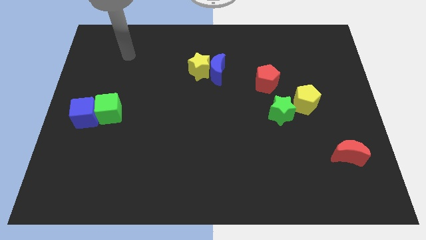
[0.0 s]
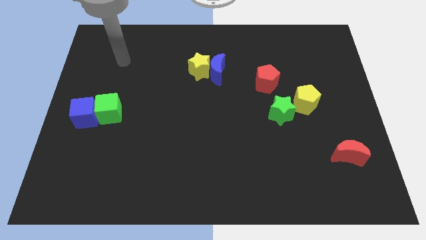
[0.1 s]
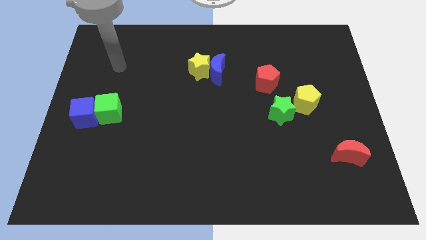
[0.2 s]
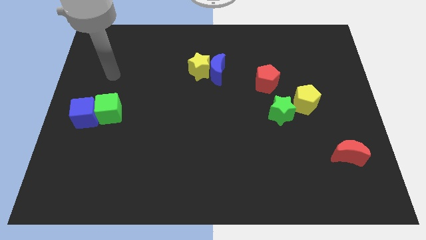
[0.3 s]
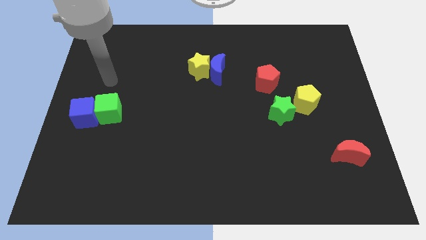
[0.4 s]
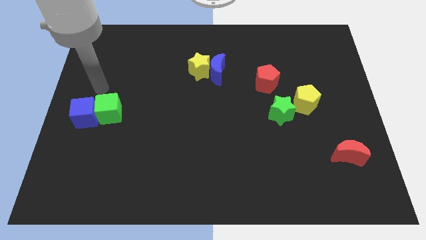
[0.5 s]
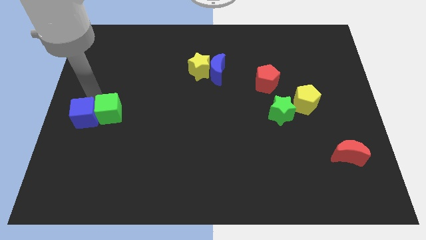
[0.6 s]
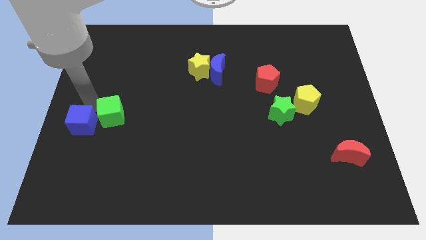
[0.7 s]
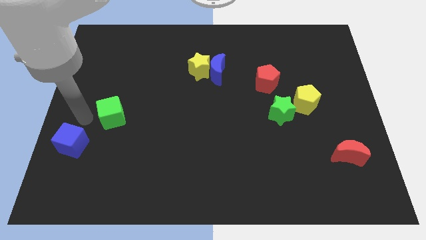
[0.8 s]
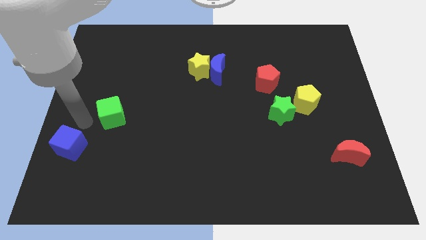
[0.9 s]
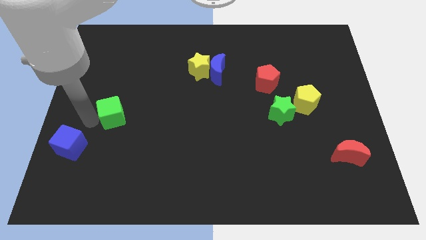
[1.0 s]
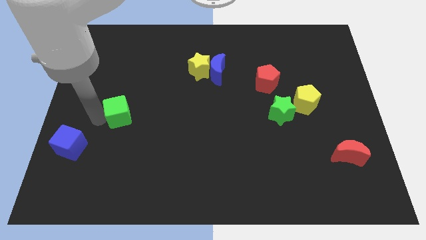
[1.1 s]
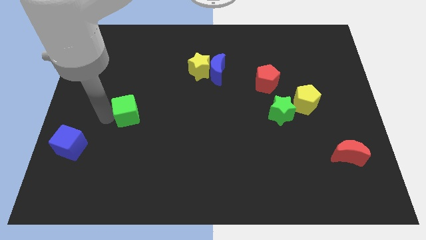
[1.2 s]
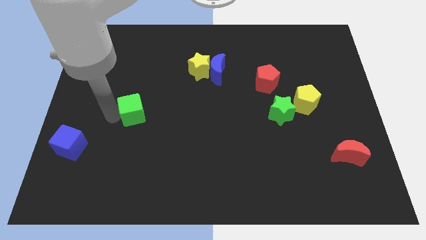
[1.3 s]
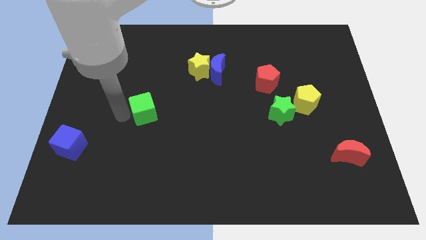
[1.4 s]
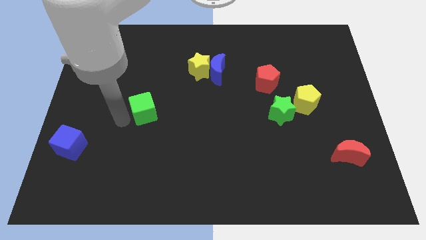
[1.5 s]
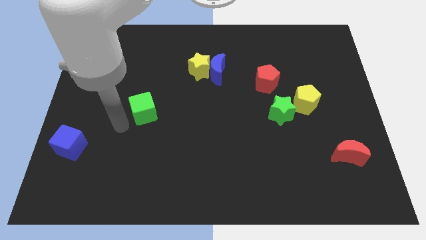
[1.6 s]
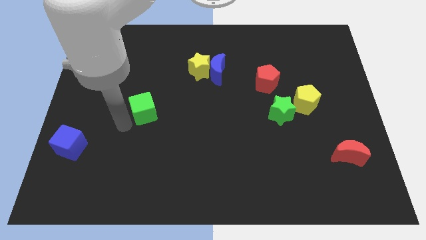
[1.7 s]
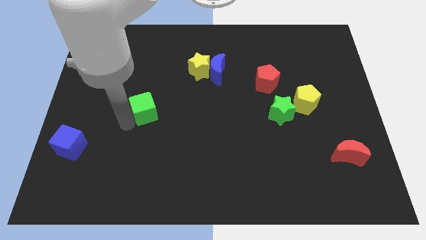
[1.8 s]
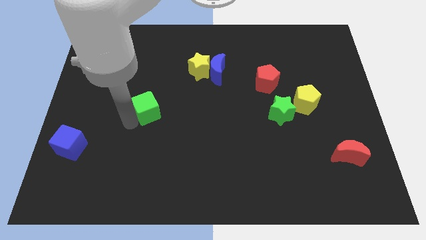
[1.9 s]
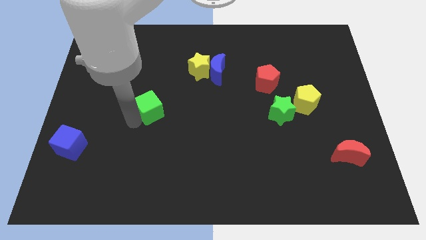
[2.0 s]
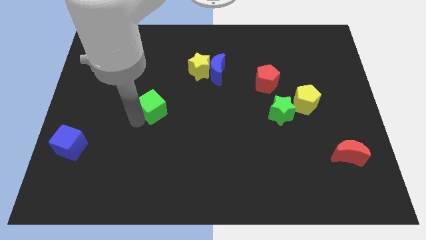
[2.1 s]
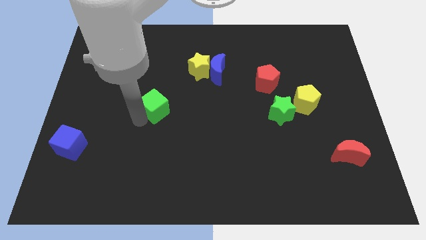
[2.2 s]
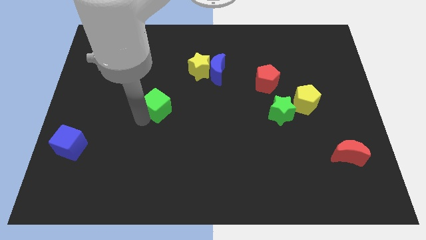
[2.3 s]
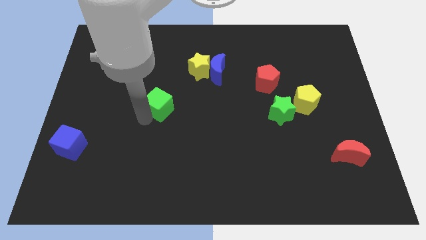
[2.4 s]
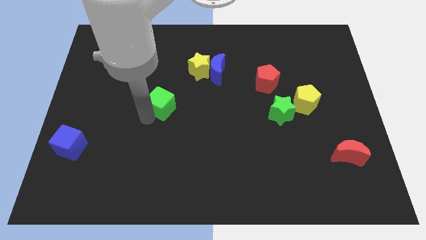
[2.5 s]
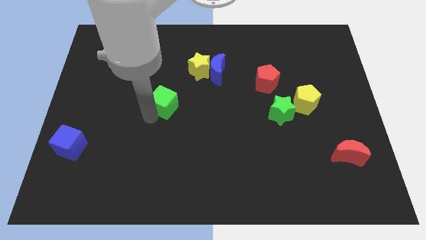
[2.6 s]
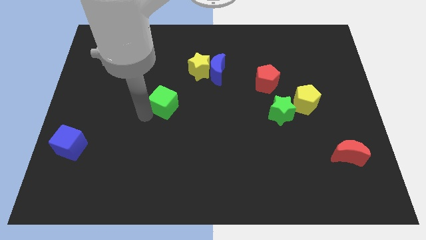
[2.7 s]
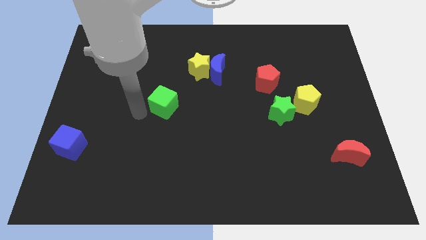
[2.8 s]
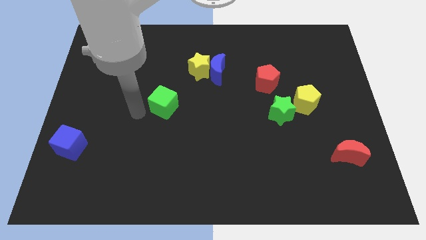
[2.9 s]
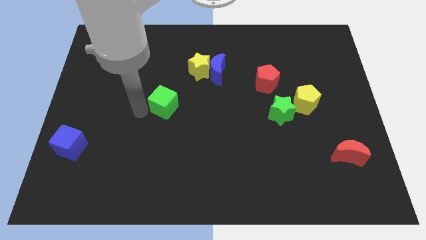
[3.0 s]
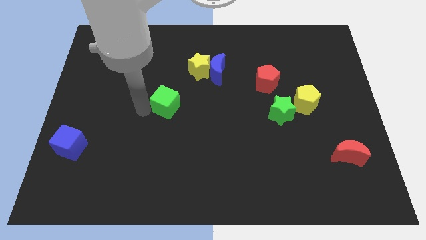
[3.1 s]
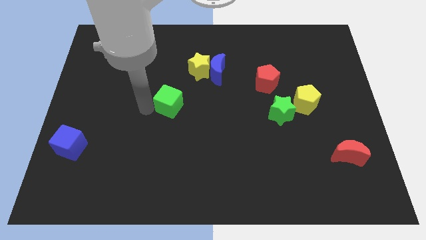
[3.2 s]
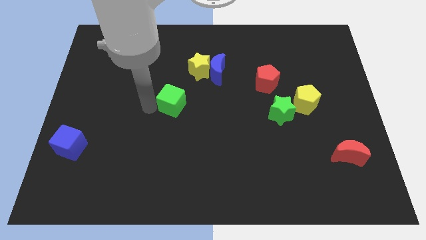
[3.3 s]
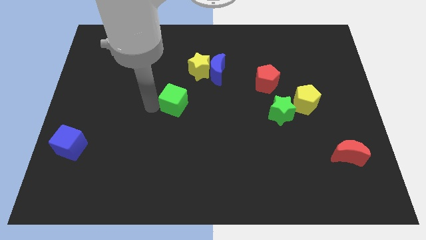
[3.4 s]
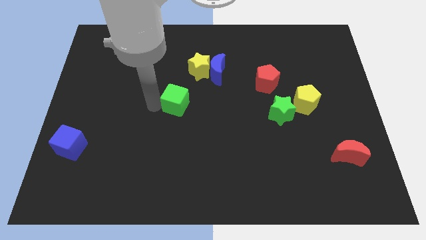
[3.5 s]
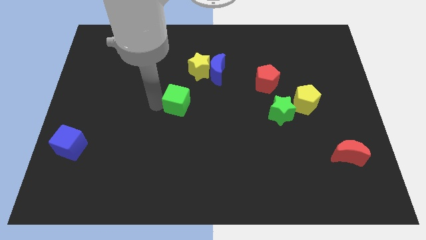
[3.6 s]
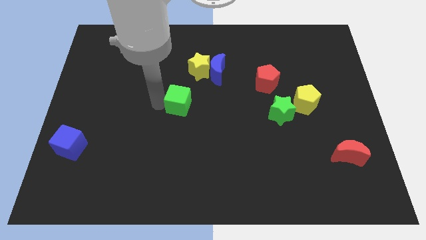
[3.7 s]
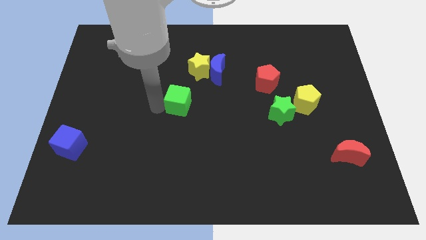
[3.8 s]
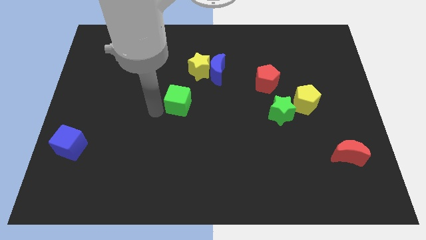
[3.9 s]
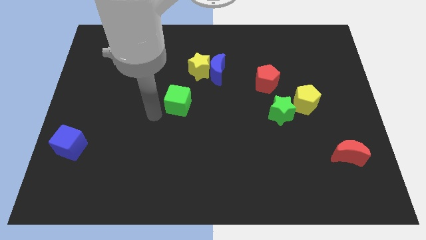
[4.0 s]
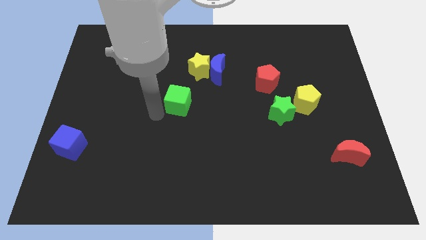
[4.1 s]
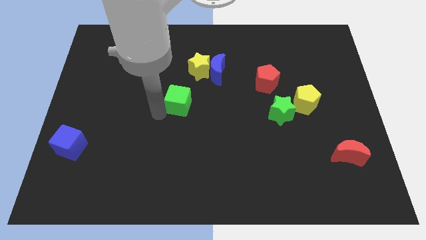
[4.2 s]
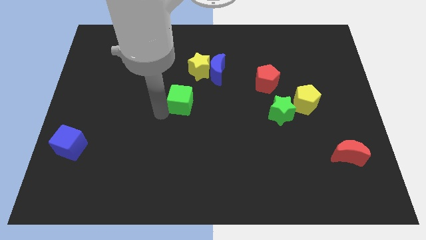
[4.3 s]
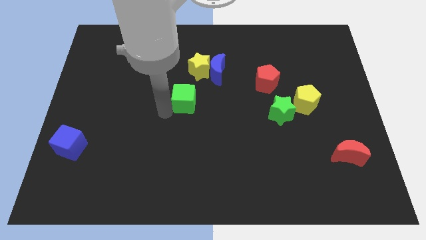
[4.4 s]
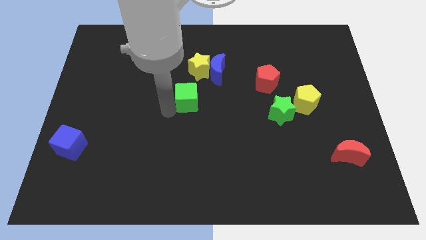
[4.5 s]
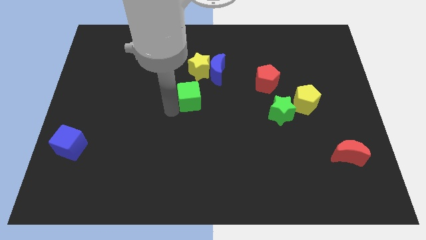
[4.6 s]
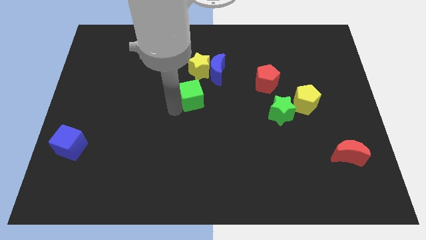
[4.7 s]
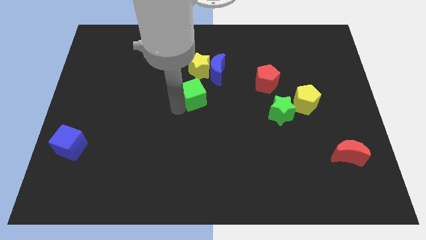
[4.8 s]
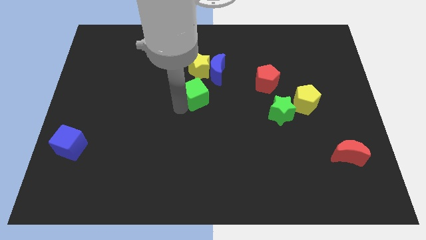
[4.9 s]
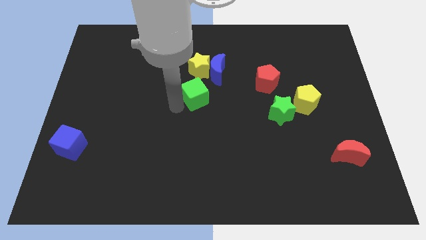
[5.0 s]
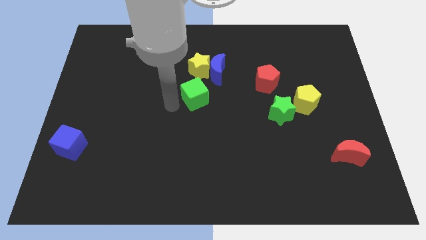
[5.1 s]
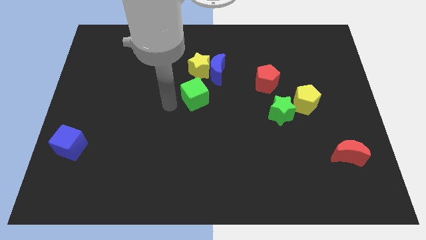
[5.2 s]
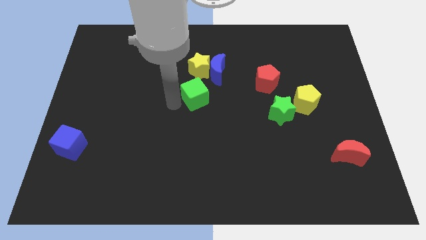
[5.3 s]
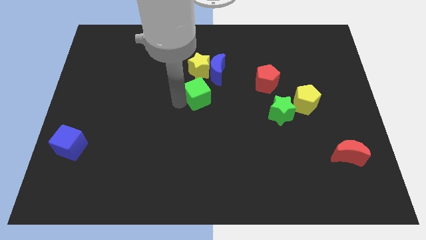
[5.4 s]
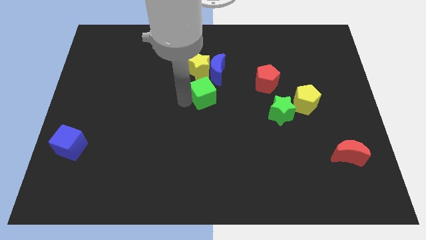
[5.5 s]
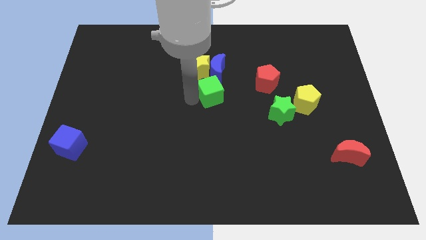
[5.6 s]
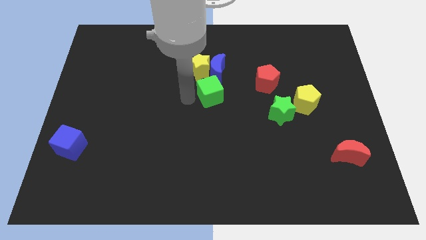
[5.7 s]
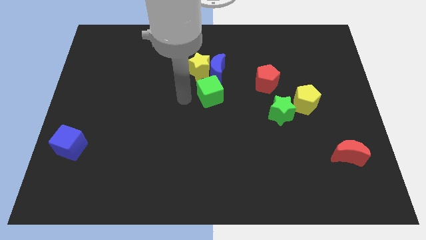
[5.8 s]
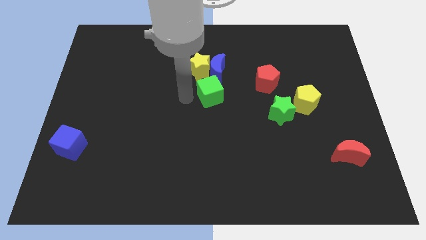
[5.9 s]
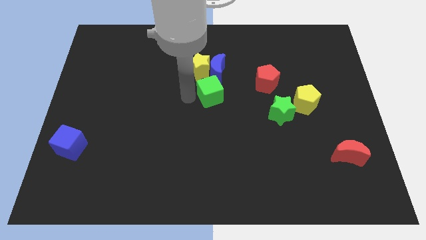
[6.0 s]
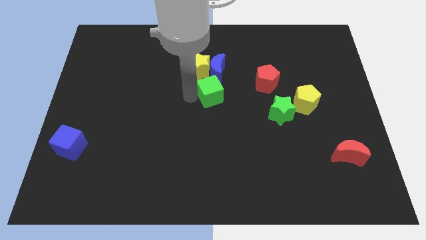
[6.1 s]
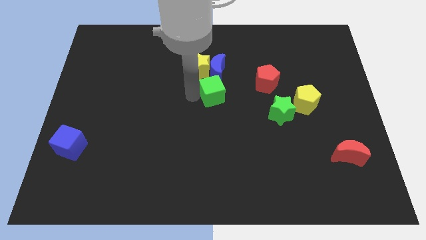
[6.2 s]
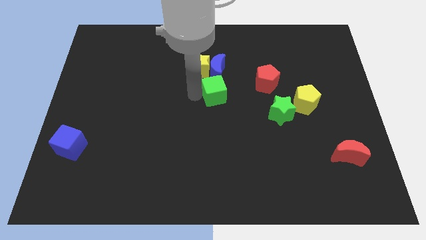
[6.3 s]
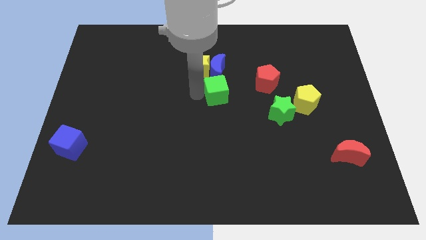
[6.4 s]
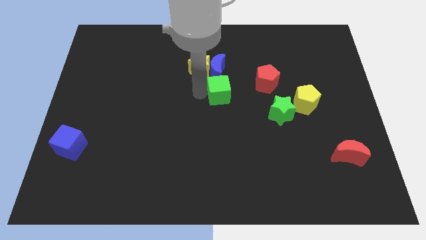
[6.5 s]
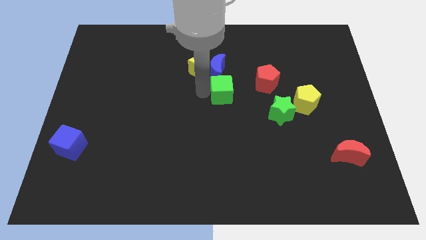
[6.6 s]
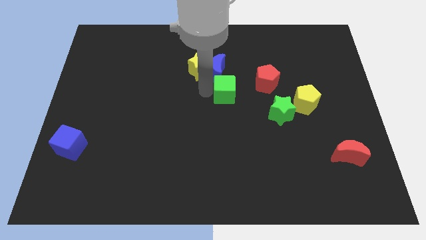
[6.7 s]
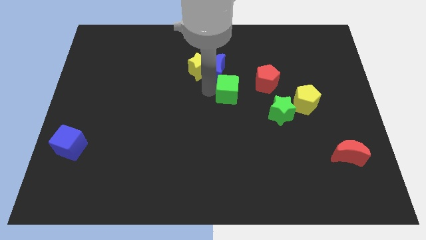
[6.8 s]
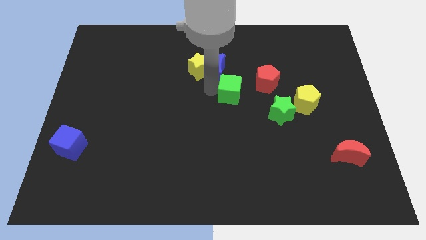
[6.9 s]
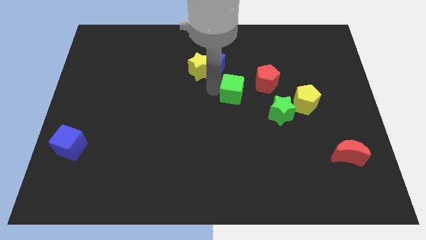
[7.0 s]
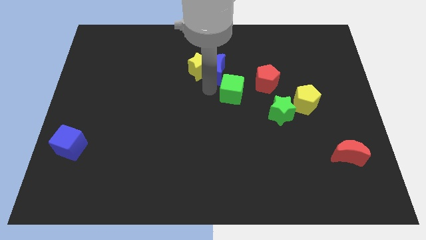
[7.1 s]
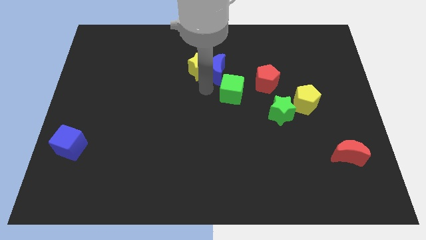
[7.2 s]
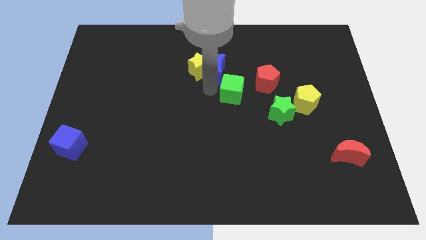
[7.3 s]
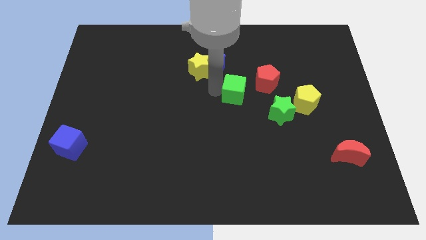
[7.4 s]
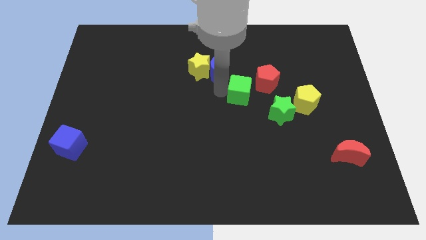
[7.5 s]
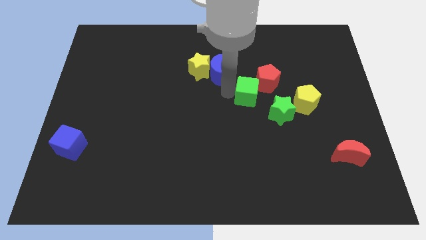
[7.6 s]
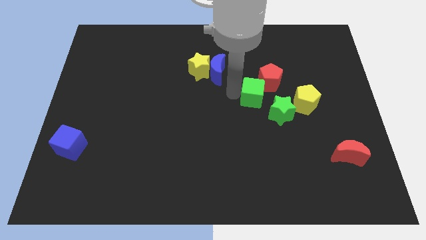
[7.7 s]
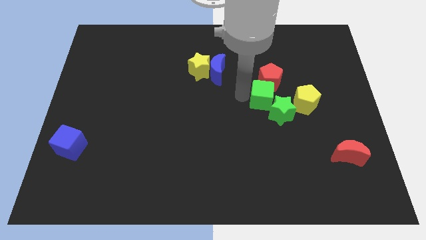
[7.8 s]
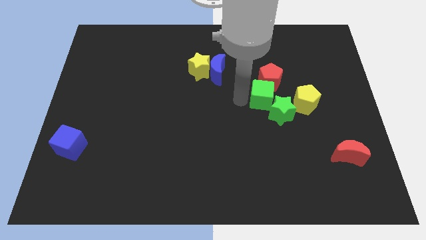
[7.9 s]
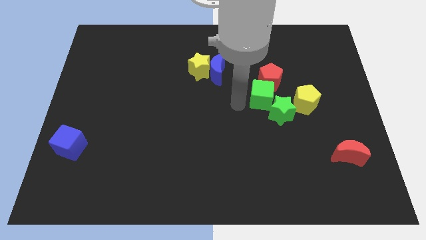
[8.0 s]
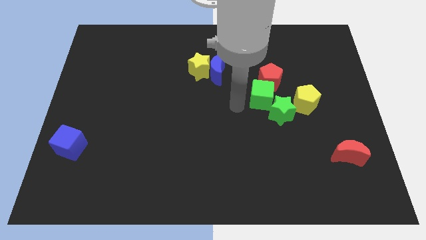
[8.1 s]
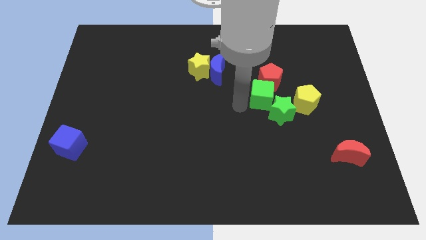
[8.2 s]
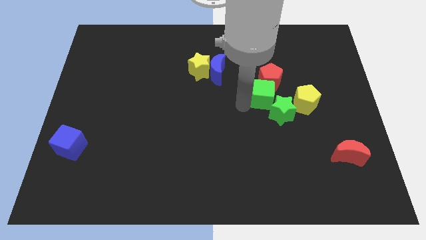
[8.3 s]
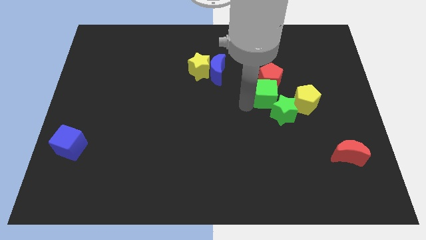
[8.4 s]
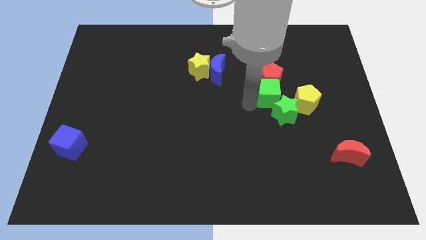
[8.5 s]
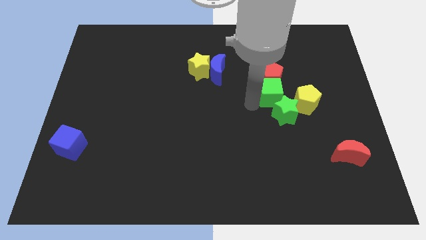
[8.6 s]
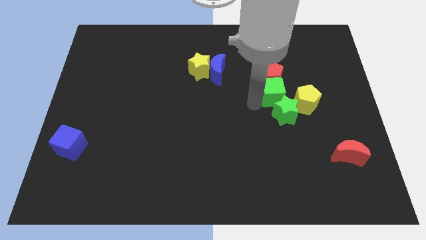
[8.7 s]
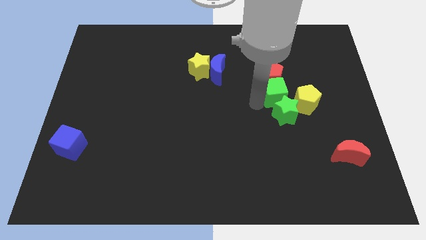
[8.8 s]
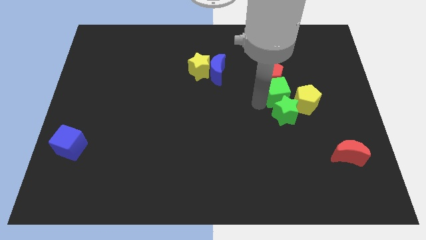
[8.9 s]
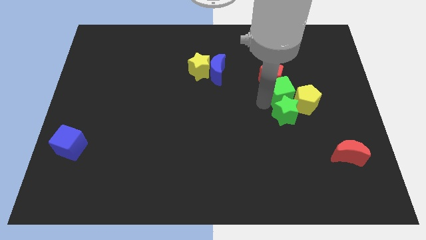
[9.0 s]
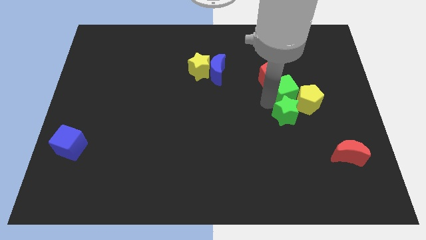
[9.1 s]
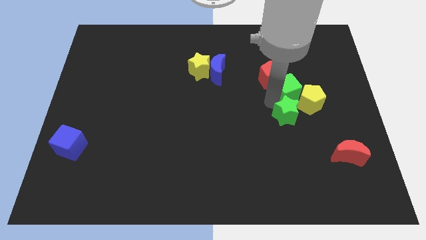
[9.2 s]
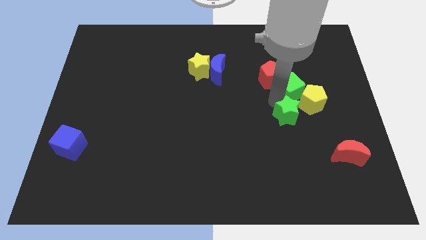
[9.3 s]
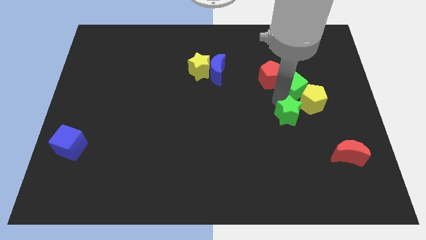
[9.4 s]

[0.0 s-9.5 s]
push the green cube above the yellow pentagon
